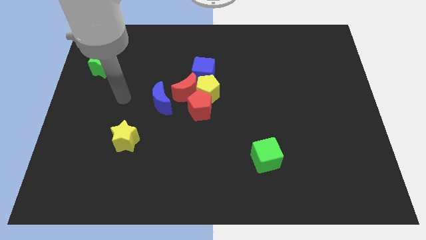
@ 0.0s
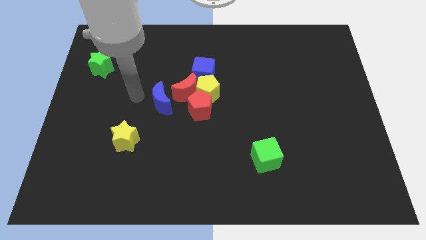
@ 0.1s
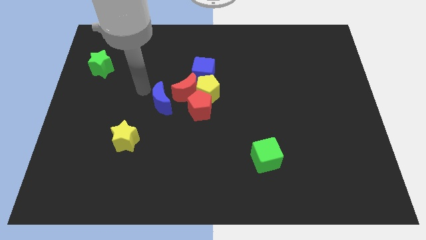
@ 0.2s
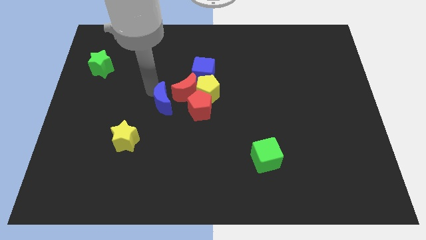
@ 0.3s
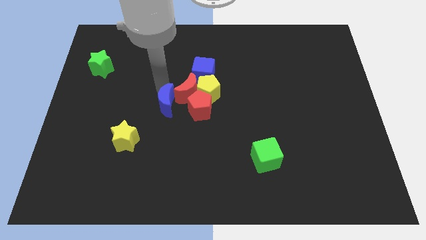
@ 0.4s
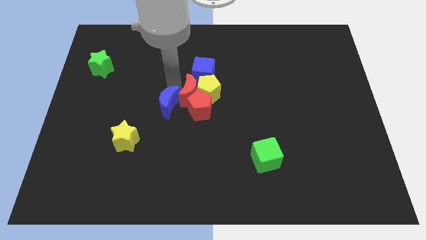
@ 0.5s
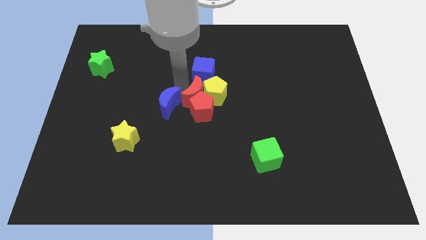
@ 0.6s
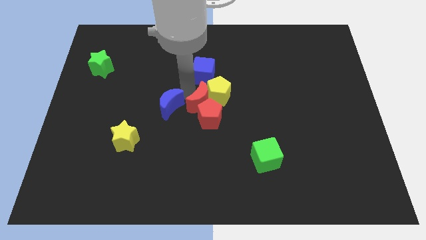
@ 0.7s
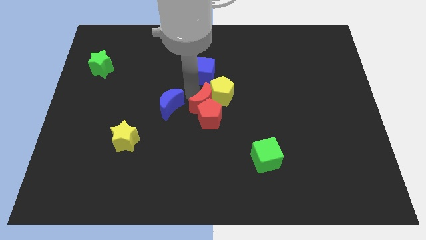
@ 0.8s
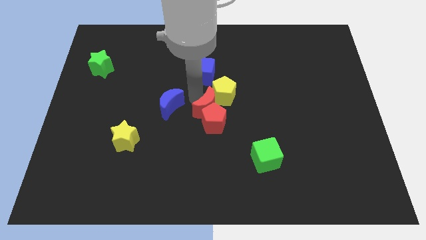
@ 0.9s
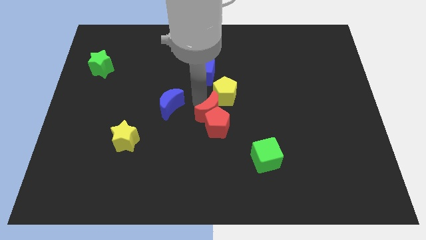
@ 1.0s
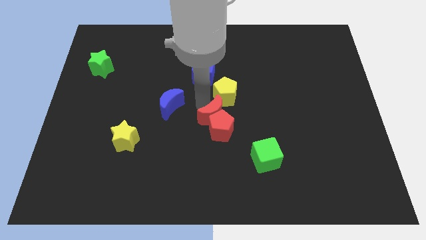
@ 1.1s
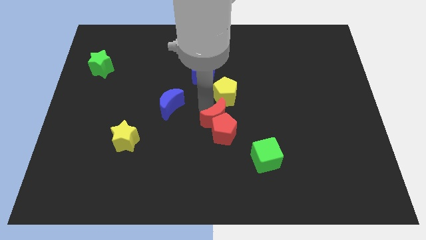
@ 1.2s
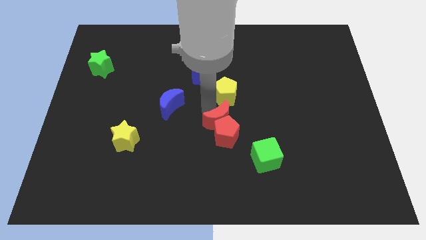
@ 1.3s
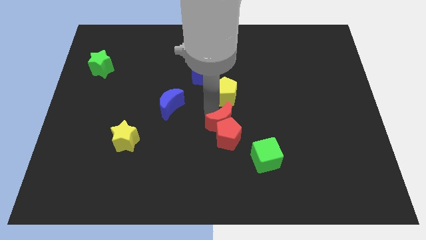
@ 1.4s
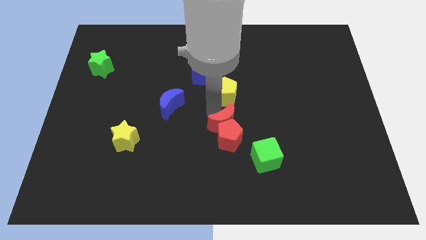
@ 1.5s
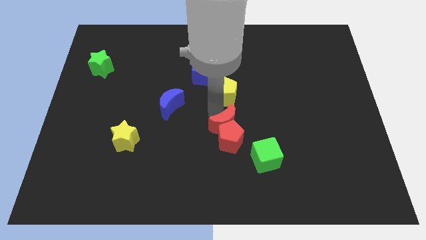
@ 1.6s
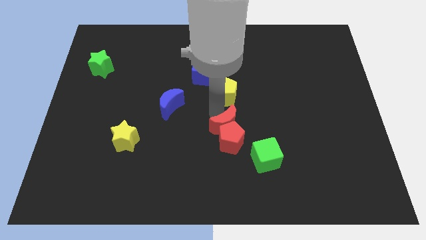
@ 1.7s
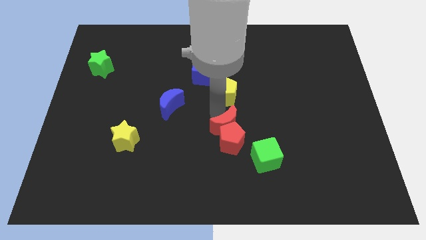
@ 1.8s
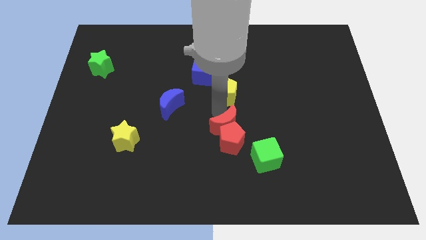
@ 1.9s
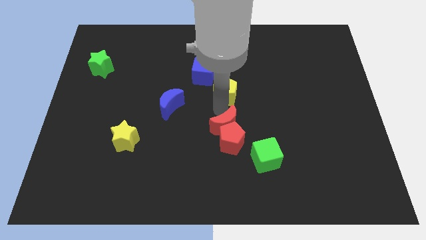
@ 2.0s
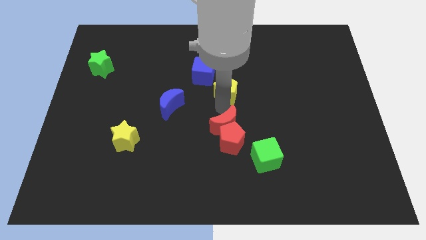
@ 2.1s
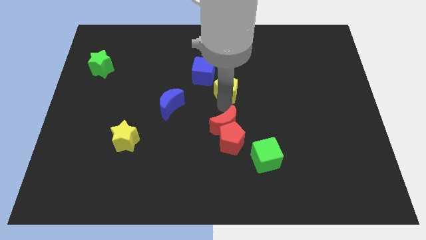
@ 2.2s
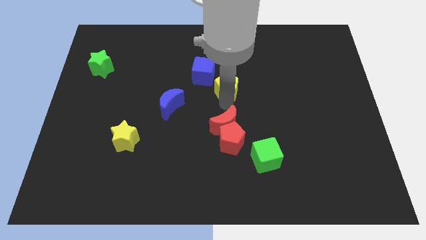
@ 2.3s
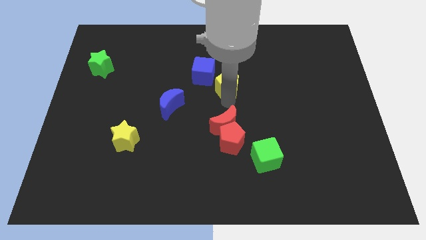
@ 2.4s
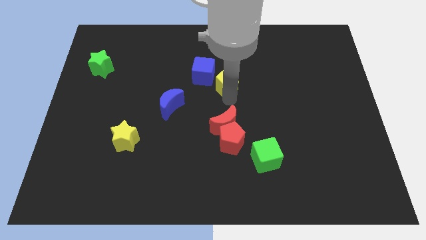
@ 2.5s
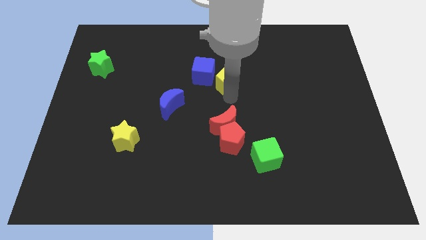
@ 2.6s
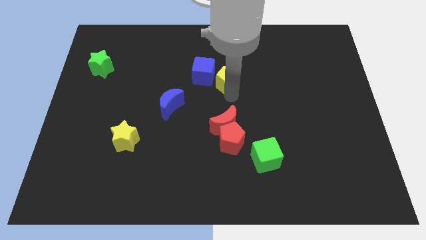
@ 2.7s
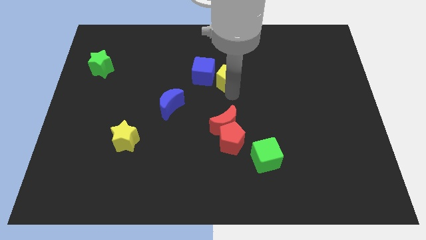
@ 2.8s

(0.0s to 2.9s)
separate the yellow pentagon from the clump

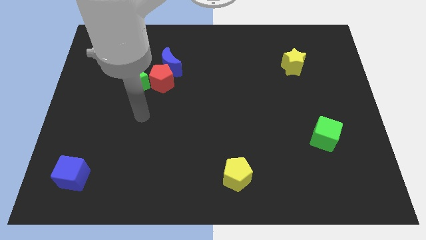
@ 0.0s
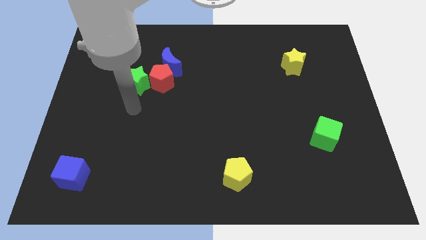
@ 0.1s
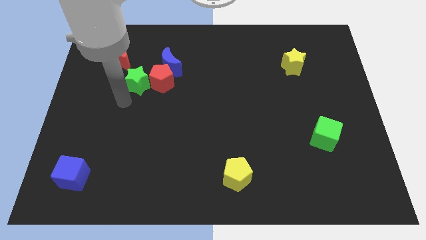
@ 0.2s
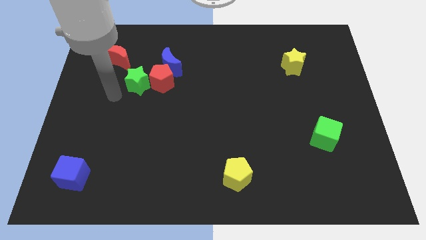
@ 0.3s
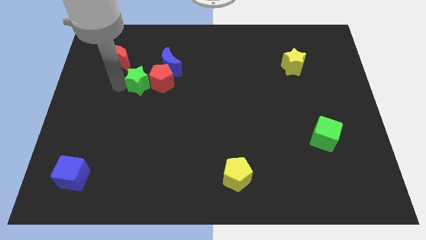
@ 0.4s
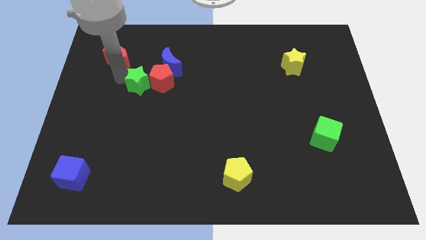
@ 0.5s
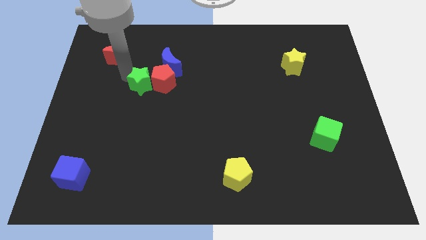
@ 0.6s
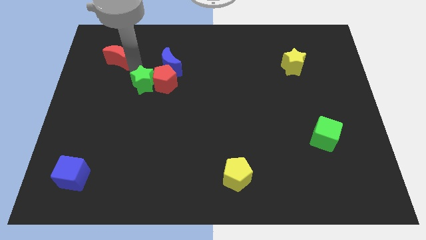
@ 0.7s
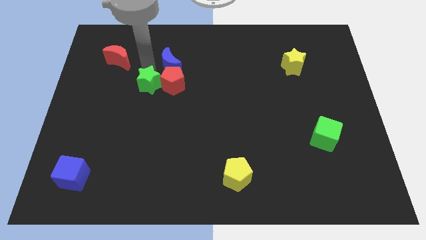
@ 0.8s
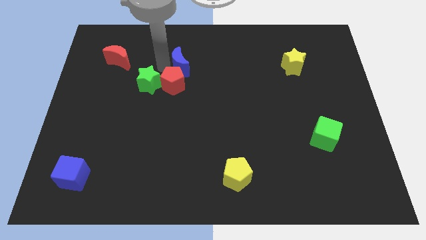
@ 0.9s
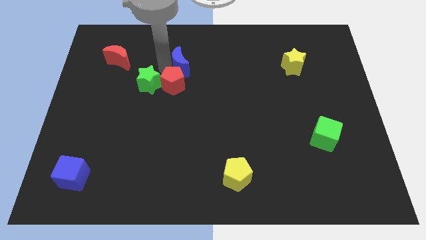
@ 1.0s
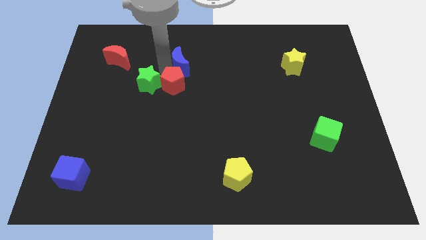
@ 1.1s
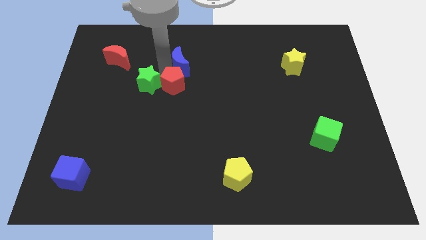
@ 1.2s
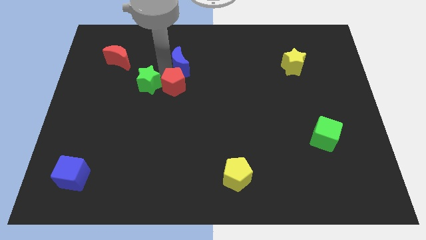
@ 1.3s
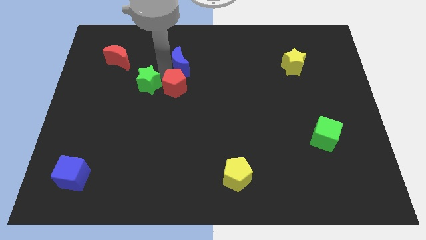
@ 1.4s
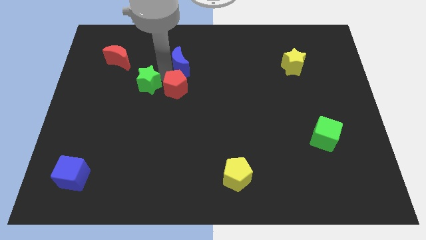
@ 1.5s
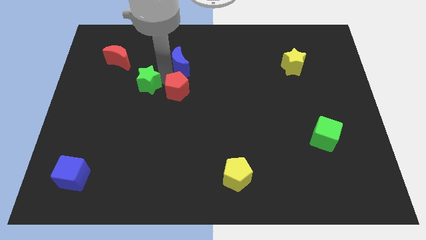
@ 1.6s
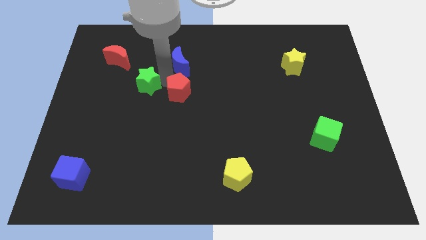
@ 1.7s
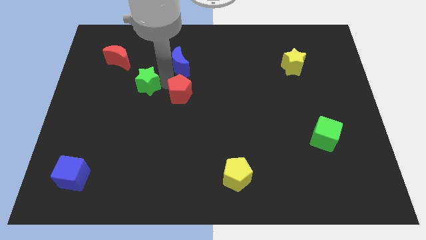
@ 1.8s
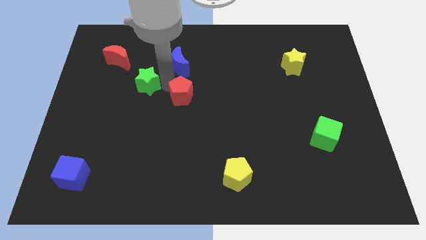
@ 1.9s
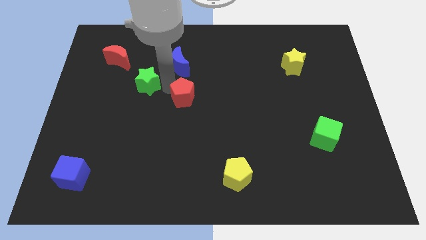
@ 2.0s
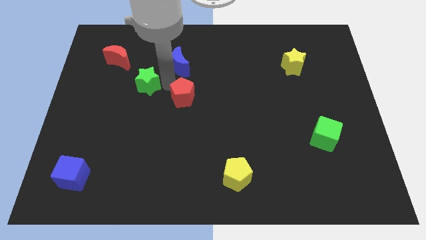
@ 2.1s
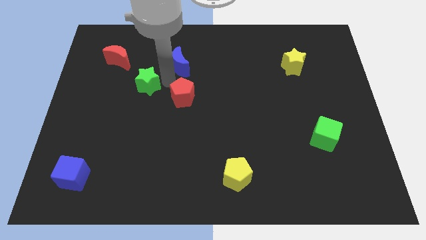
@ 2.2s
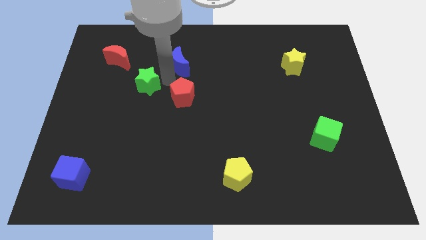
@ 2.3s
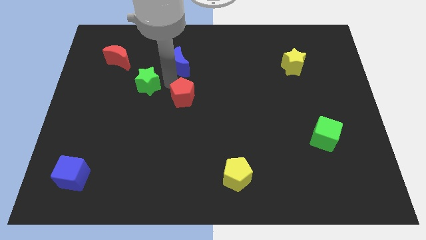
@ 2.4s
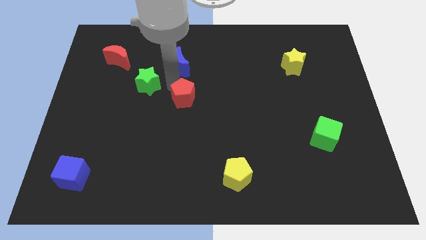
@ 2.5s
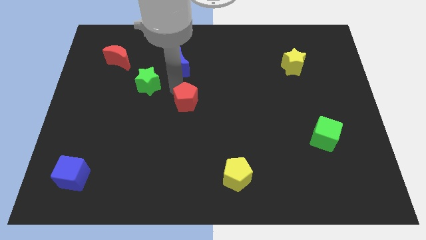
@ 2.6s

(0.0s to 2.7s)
pull the red pentagon apart from the blue moon and green star

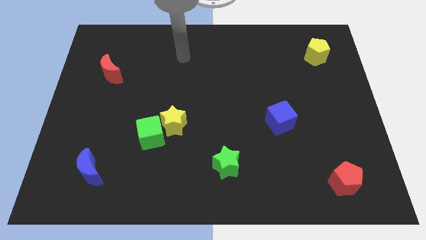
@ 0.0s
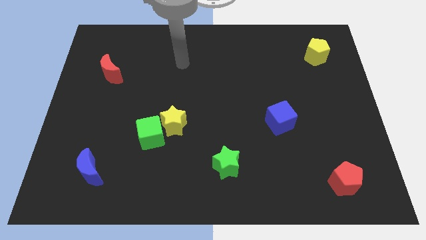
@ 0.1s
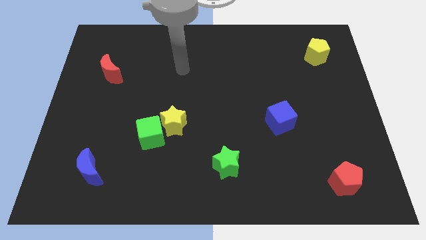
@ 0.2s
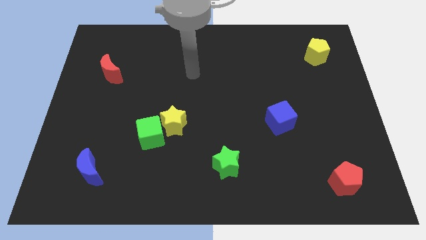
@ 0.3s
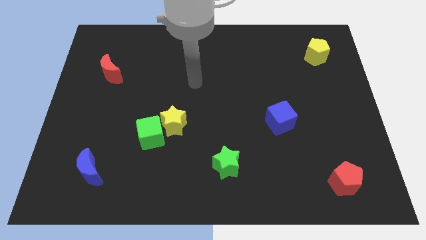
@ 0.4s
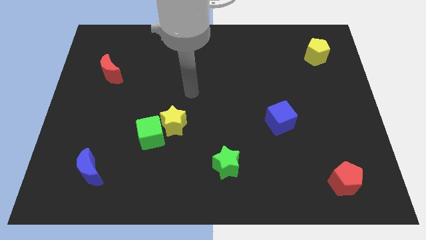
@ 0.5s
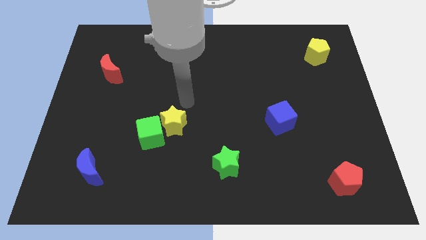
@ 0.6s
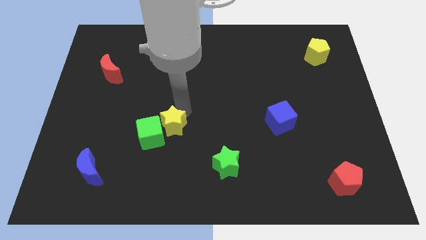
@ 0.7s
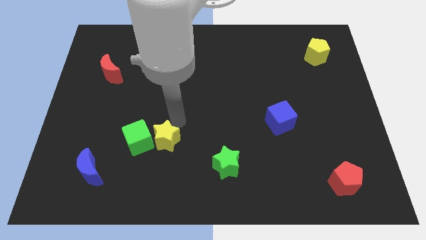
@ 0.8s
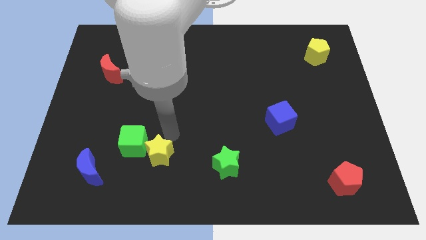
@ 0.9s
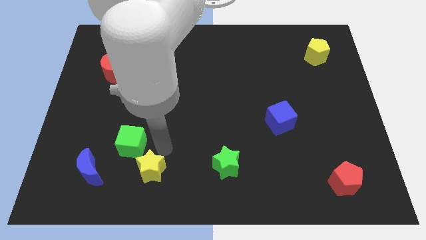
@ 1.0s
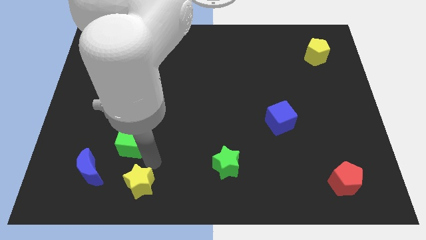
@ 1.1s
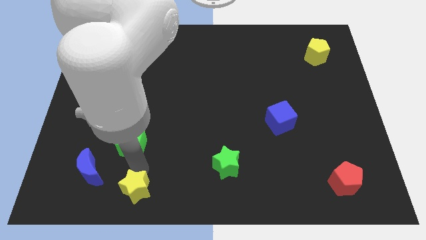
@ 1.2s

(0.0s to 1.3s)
move the green cube away from the yellow star

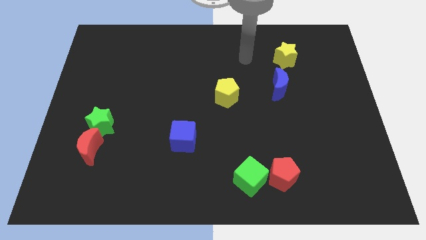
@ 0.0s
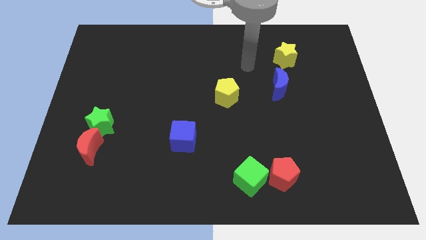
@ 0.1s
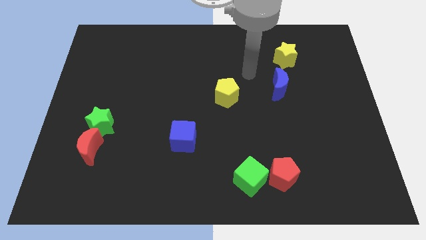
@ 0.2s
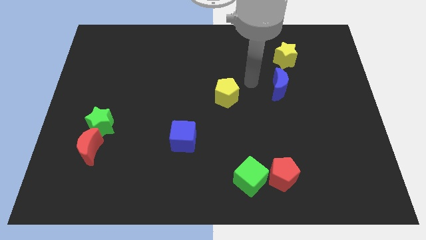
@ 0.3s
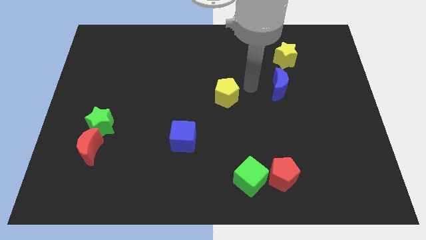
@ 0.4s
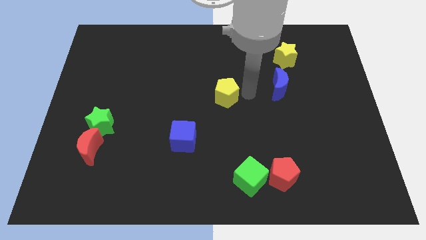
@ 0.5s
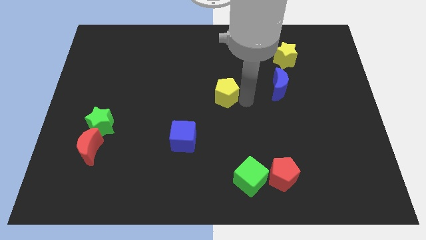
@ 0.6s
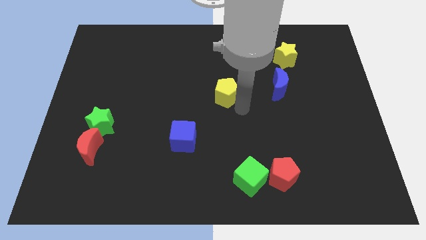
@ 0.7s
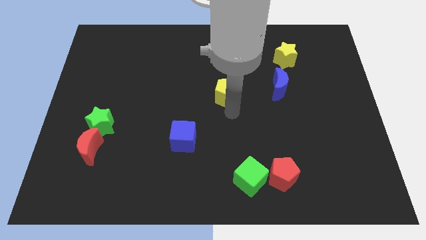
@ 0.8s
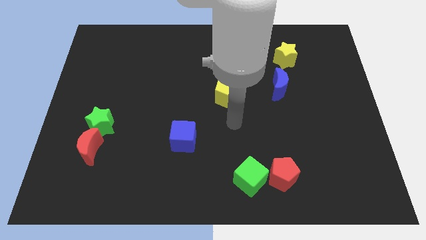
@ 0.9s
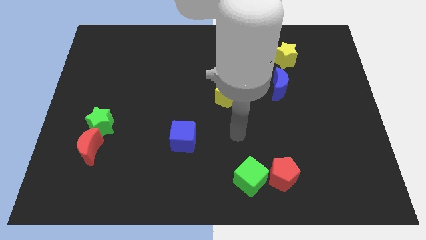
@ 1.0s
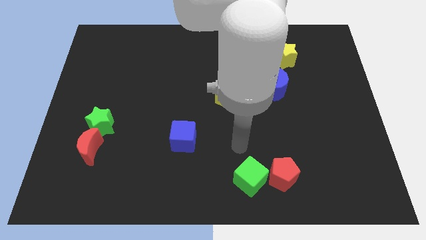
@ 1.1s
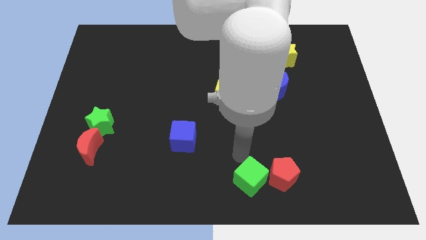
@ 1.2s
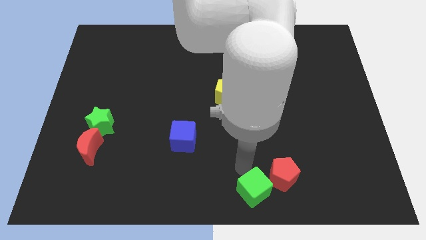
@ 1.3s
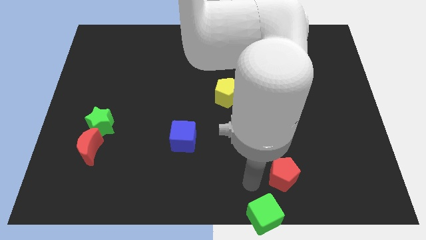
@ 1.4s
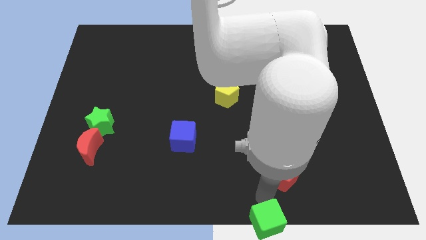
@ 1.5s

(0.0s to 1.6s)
separate the red pentagon from the green cube

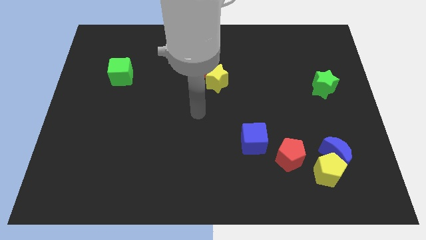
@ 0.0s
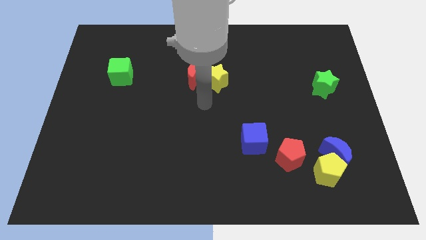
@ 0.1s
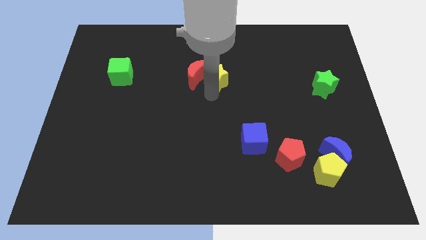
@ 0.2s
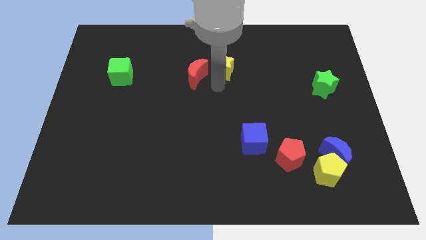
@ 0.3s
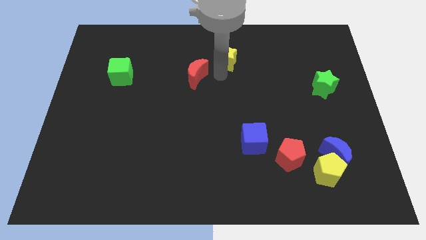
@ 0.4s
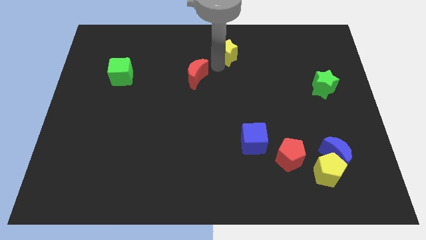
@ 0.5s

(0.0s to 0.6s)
pull the red moon apart from the yellow star

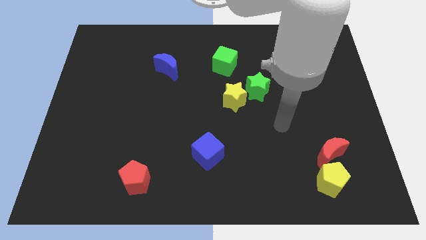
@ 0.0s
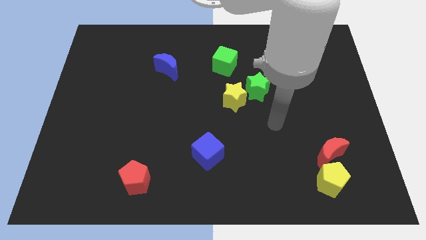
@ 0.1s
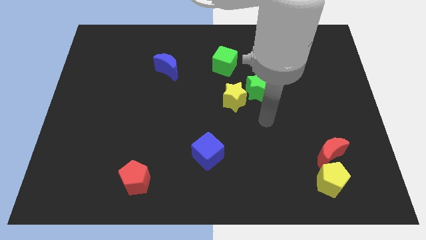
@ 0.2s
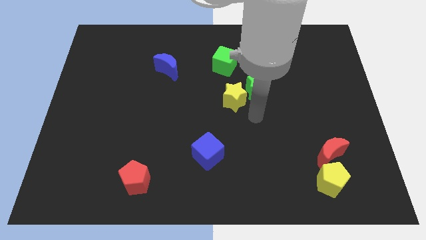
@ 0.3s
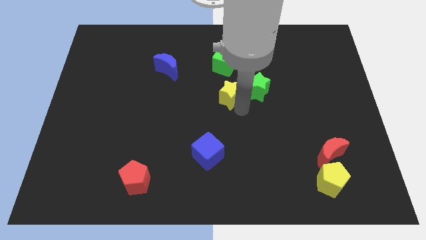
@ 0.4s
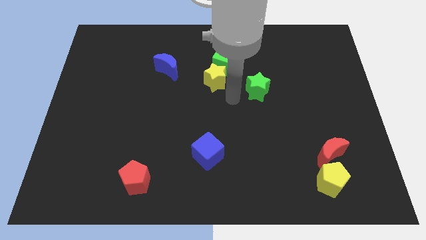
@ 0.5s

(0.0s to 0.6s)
move the green star away from the yellow star
